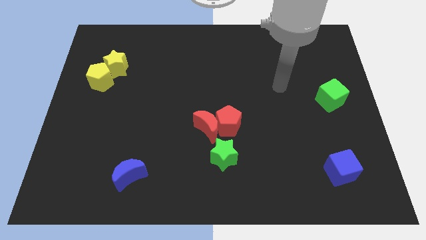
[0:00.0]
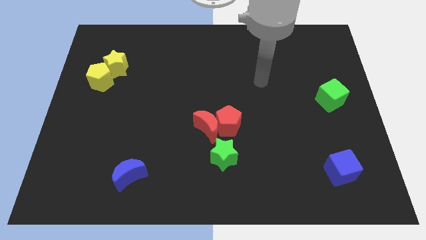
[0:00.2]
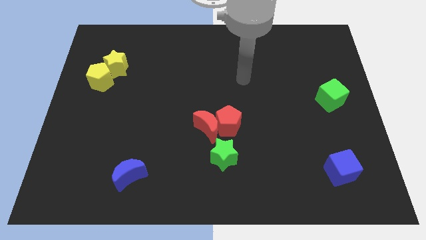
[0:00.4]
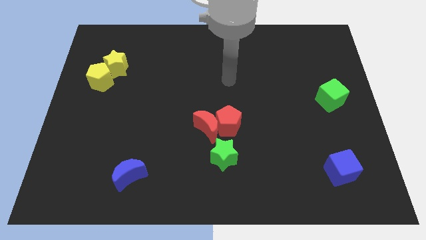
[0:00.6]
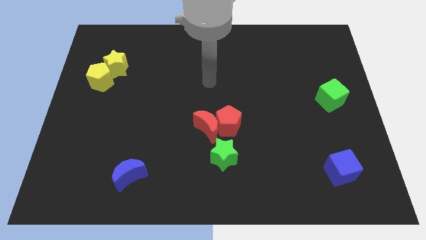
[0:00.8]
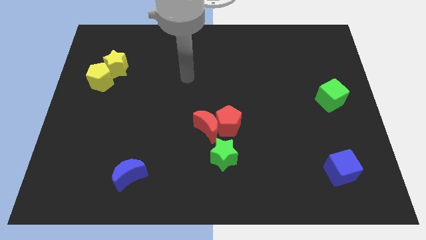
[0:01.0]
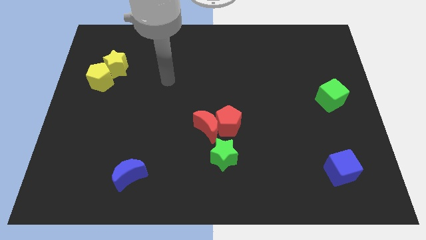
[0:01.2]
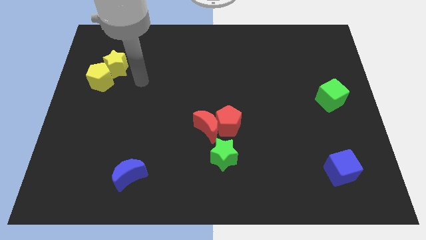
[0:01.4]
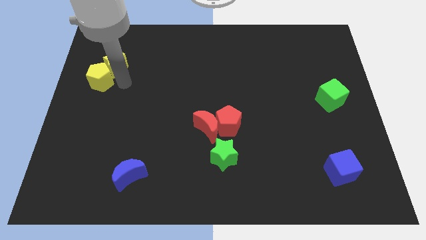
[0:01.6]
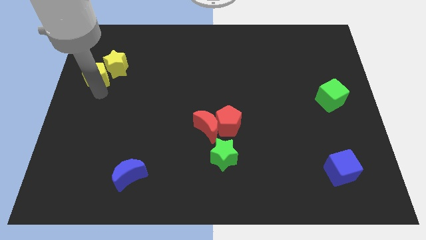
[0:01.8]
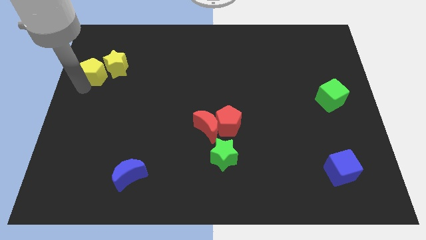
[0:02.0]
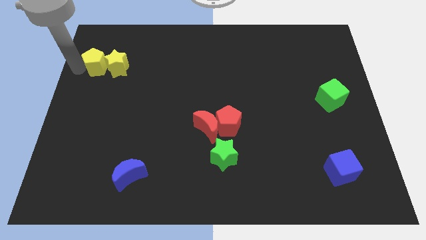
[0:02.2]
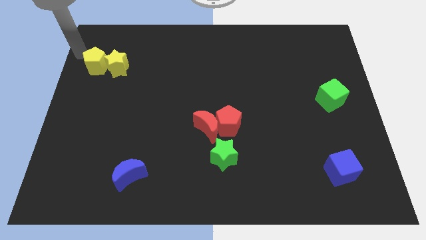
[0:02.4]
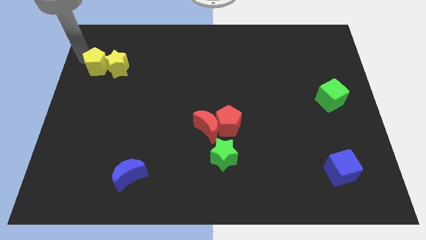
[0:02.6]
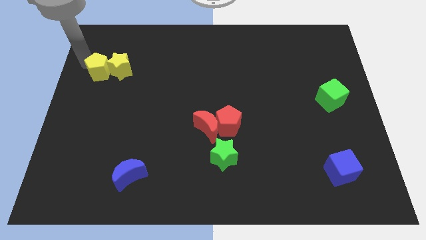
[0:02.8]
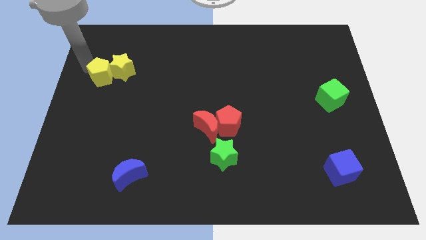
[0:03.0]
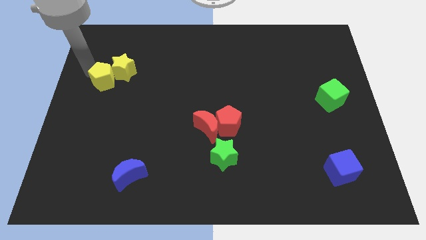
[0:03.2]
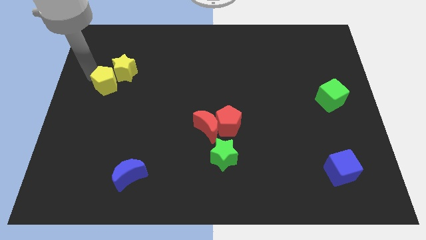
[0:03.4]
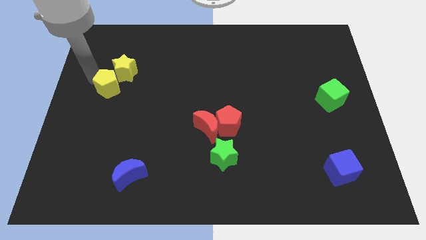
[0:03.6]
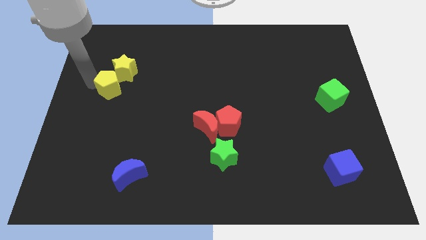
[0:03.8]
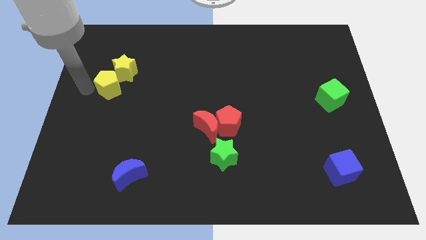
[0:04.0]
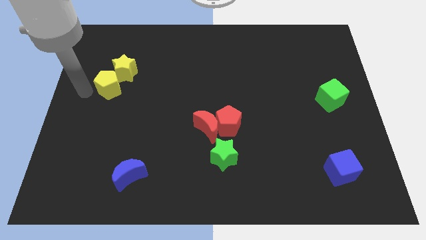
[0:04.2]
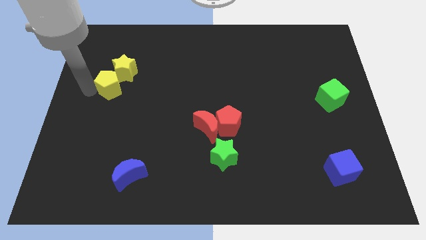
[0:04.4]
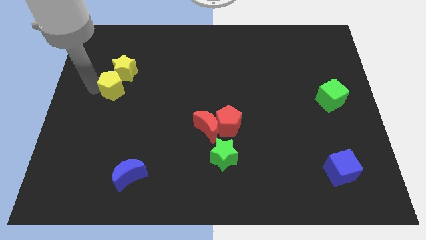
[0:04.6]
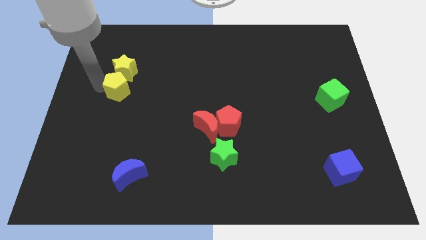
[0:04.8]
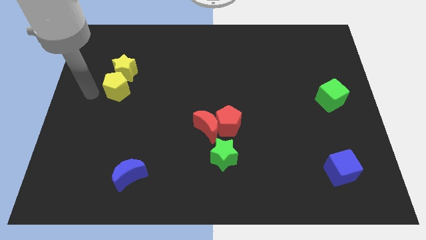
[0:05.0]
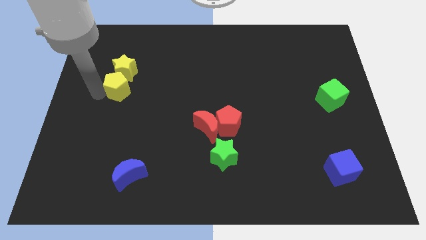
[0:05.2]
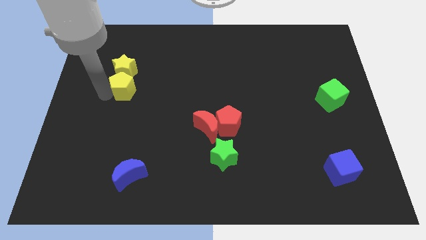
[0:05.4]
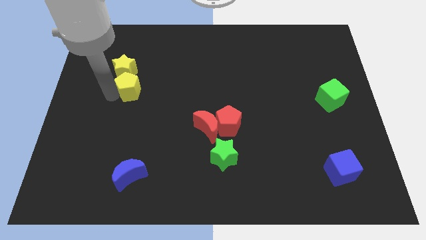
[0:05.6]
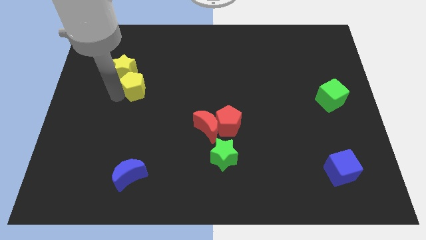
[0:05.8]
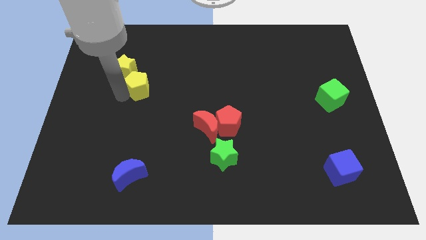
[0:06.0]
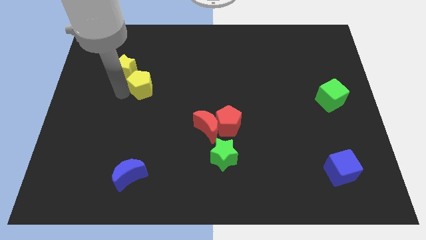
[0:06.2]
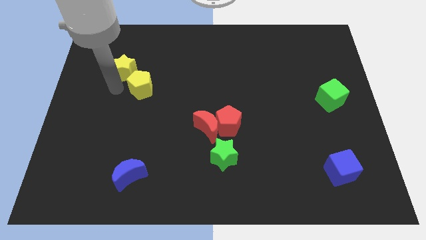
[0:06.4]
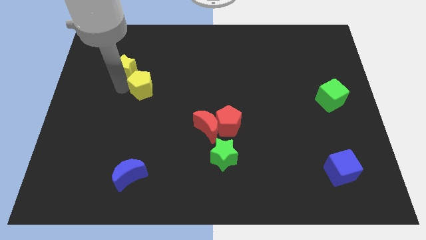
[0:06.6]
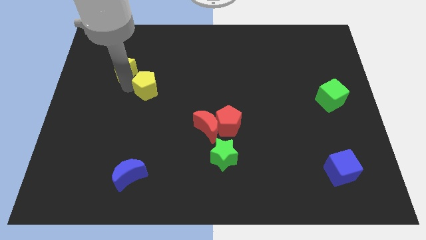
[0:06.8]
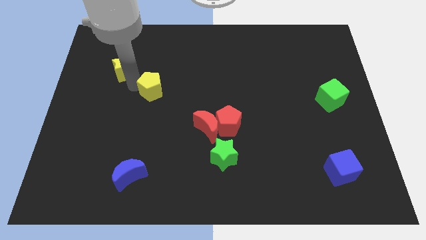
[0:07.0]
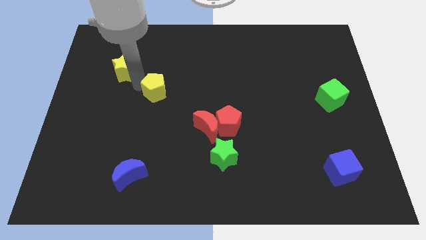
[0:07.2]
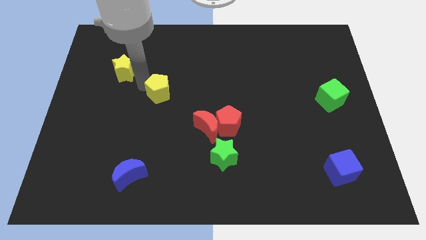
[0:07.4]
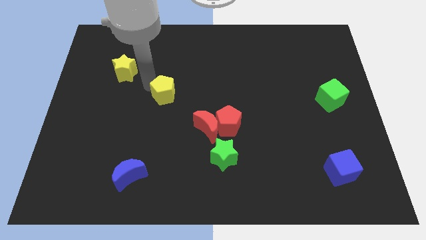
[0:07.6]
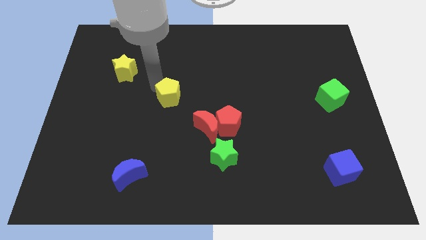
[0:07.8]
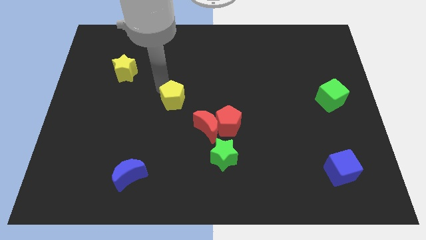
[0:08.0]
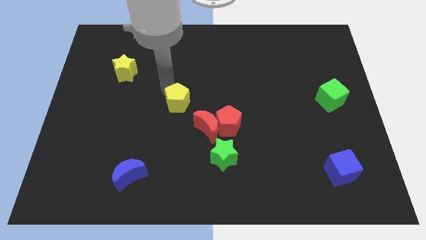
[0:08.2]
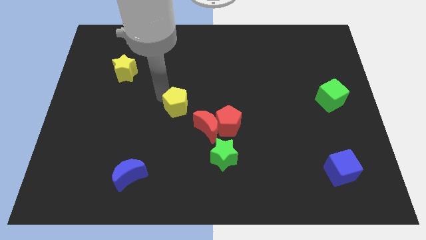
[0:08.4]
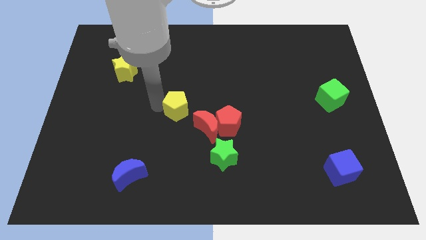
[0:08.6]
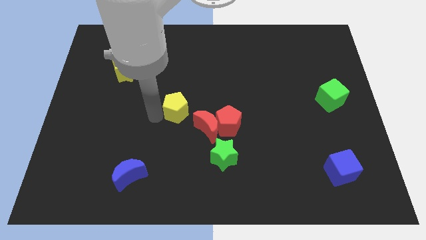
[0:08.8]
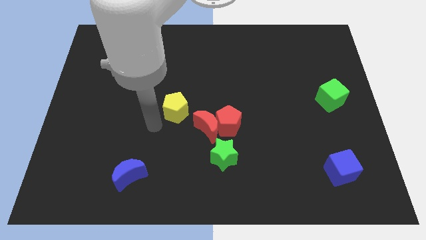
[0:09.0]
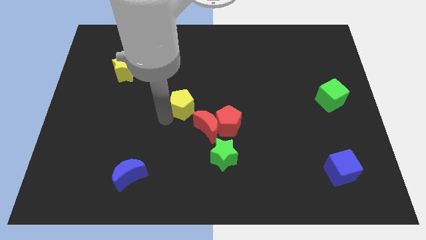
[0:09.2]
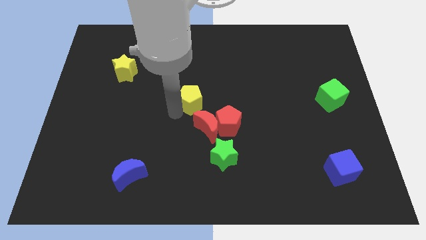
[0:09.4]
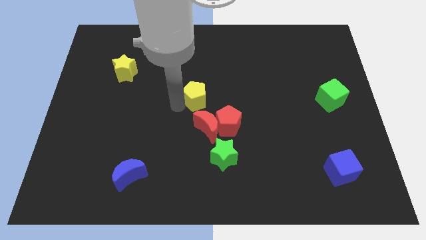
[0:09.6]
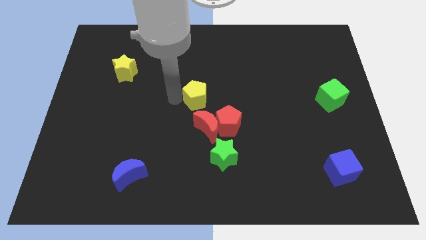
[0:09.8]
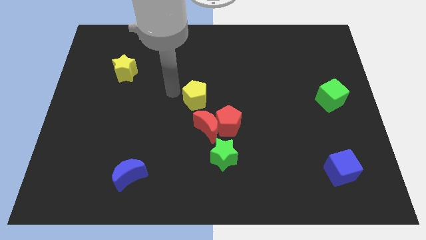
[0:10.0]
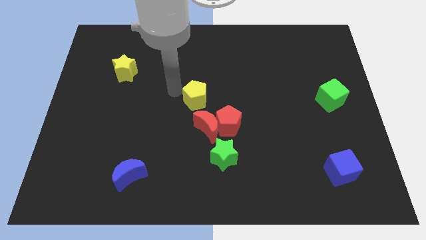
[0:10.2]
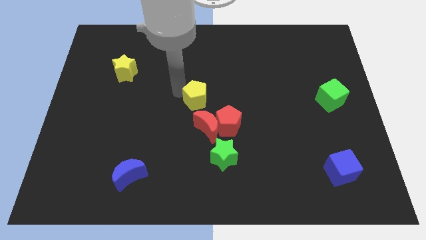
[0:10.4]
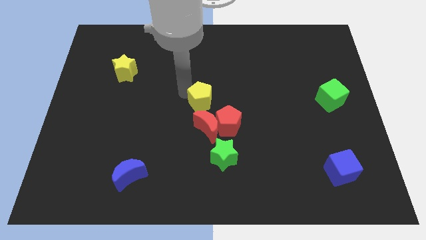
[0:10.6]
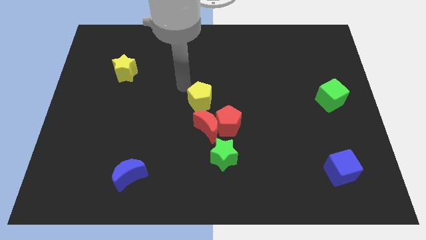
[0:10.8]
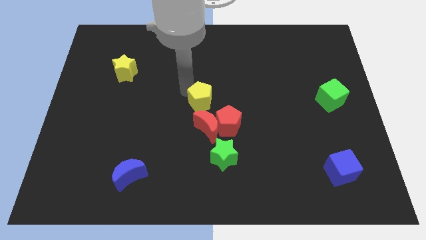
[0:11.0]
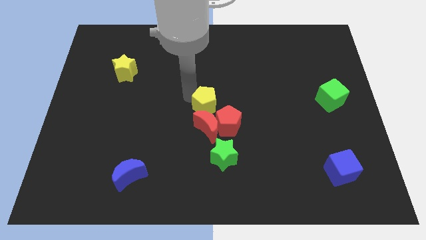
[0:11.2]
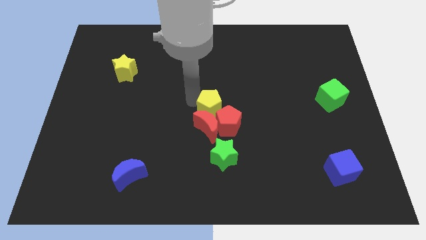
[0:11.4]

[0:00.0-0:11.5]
put the yellow pentagon next to the red pentagon

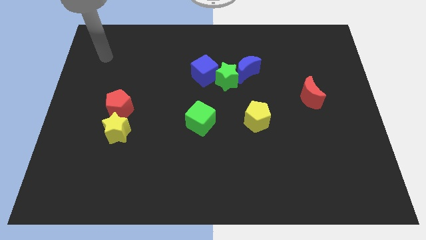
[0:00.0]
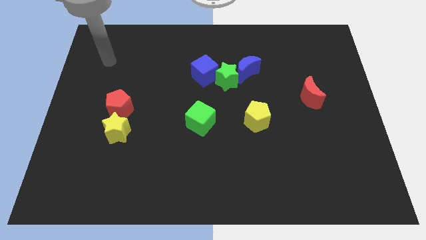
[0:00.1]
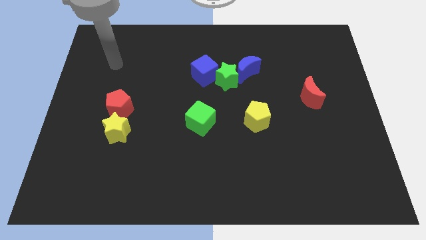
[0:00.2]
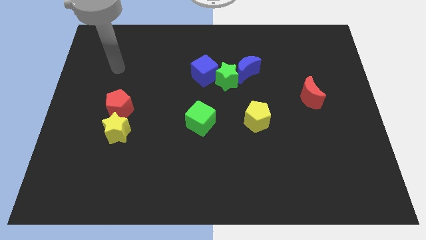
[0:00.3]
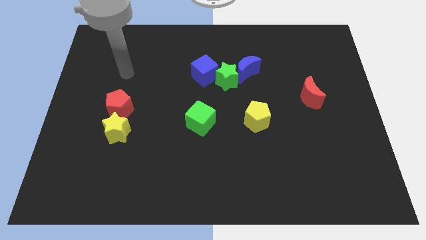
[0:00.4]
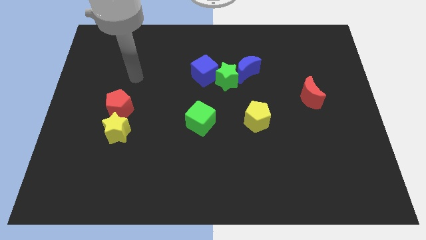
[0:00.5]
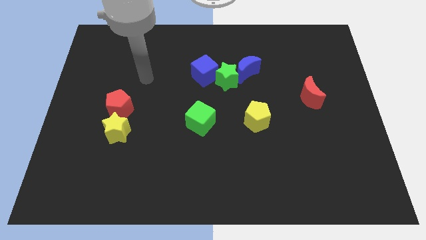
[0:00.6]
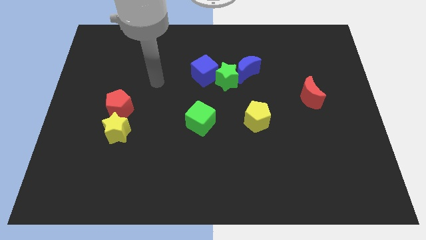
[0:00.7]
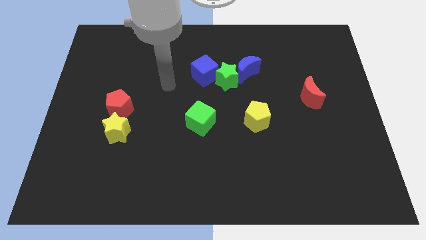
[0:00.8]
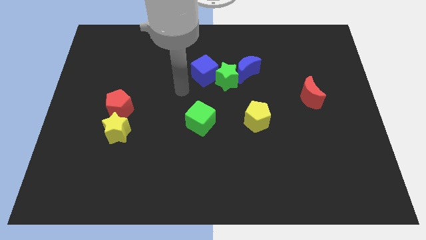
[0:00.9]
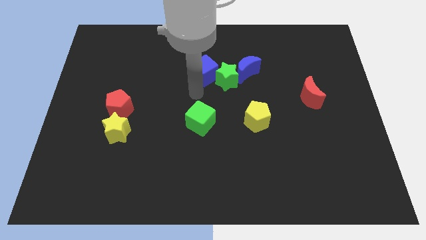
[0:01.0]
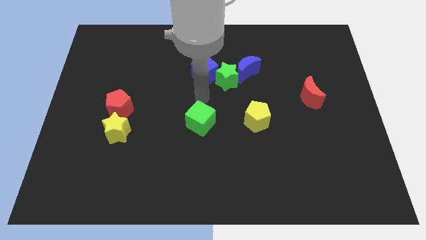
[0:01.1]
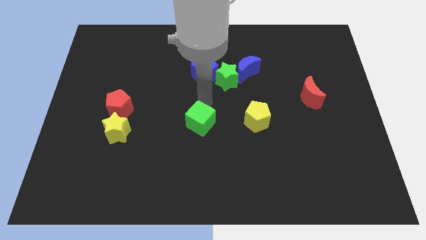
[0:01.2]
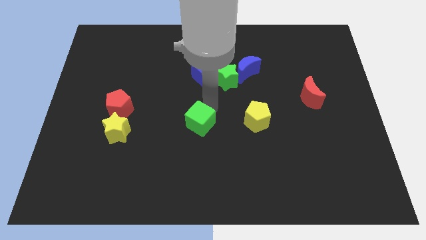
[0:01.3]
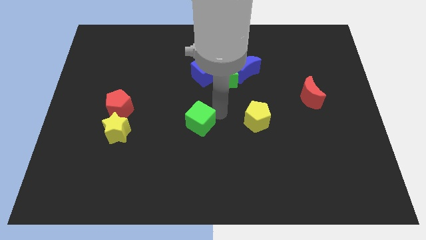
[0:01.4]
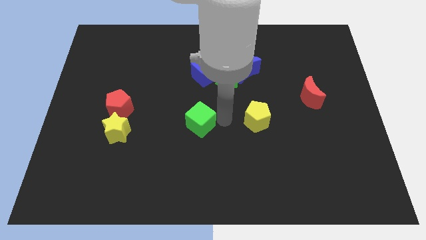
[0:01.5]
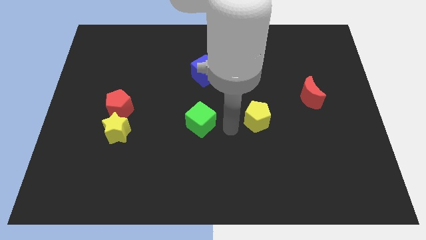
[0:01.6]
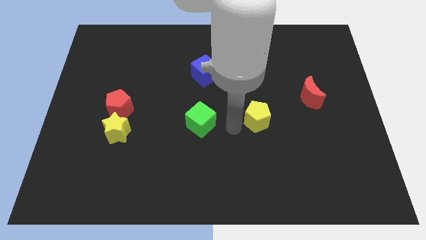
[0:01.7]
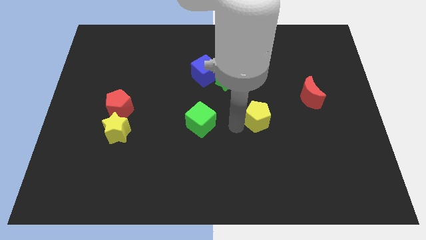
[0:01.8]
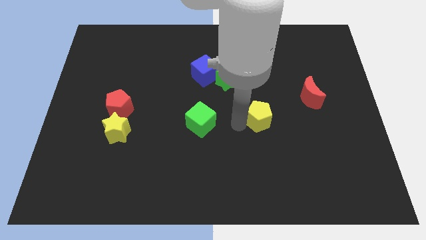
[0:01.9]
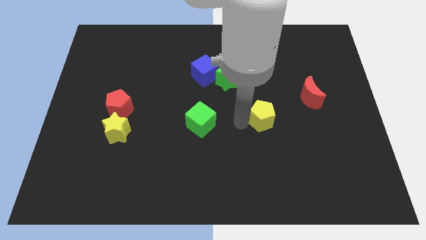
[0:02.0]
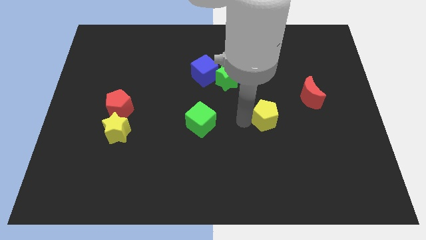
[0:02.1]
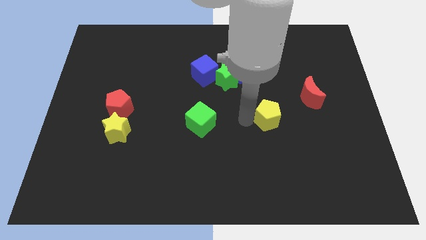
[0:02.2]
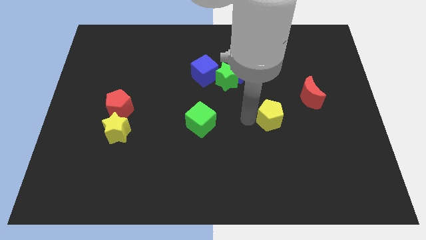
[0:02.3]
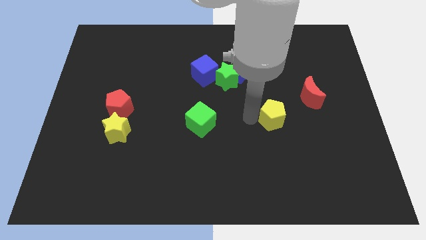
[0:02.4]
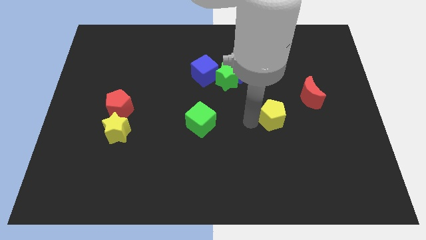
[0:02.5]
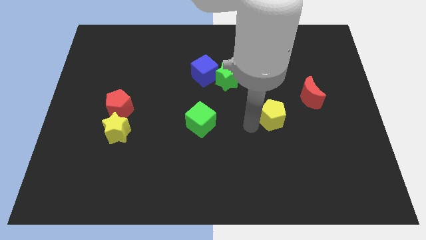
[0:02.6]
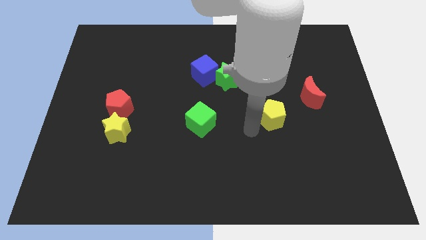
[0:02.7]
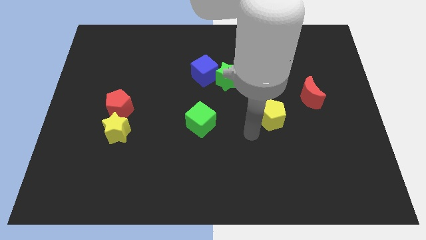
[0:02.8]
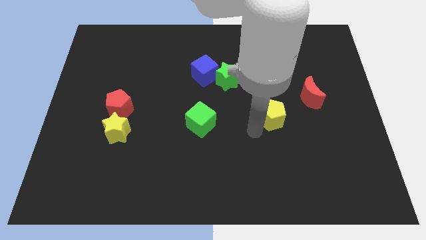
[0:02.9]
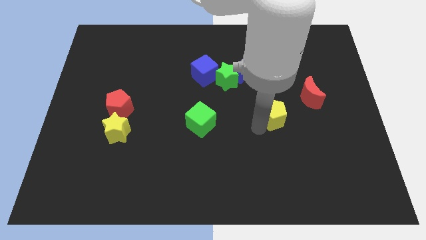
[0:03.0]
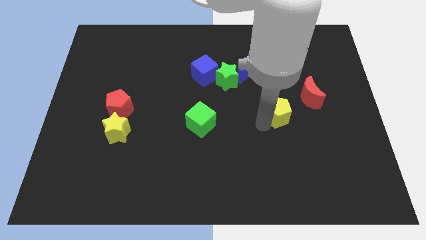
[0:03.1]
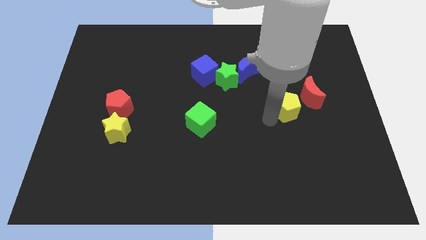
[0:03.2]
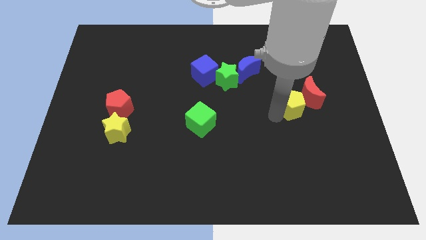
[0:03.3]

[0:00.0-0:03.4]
push the yellow pentagon to the red moon
